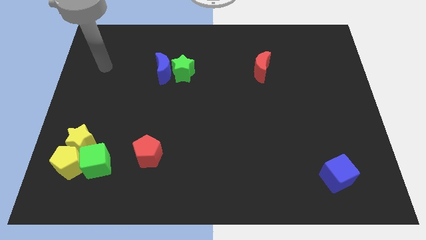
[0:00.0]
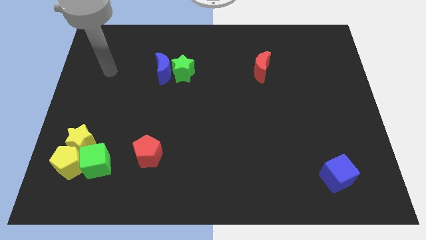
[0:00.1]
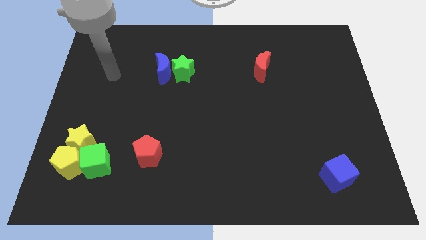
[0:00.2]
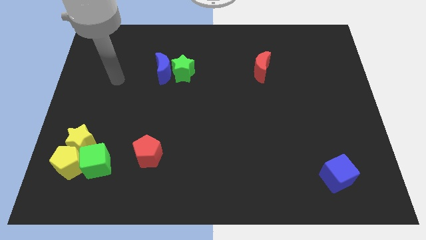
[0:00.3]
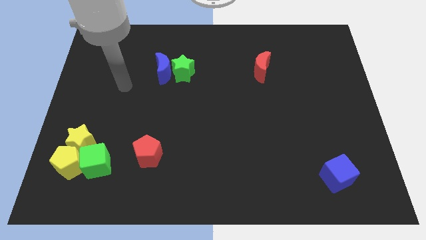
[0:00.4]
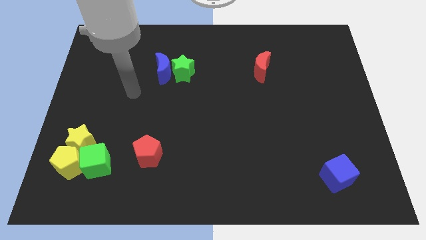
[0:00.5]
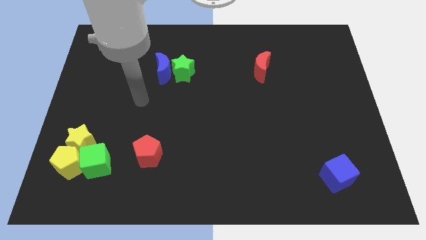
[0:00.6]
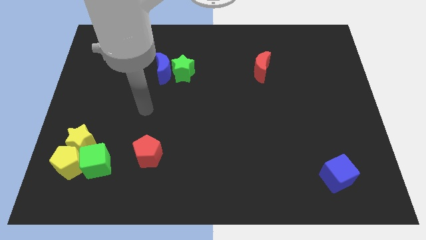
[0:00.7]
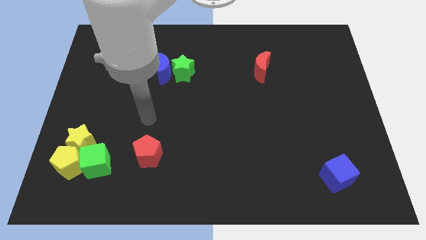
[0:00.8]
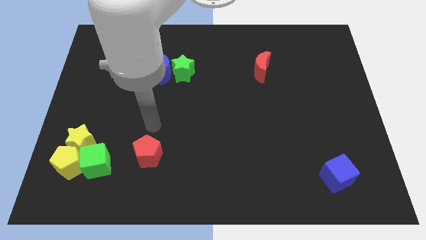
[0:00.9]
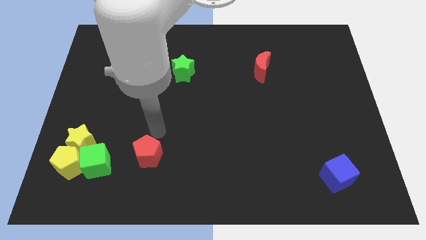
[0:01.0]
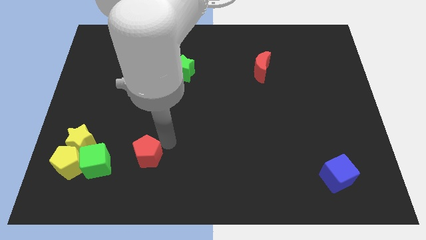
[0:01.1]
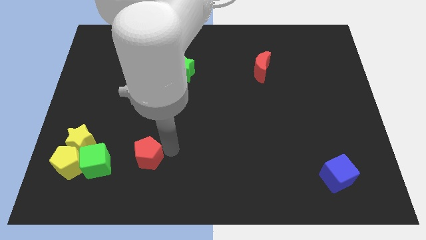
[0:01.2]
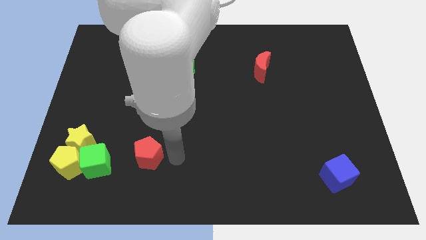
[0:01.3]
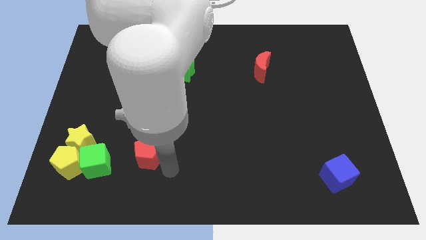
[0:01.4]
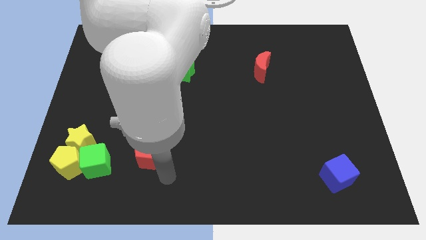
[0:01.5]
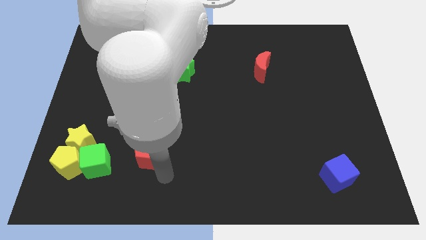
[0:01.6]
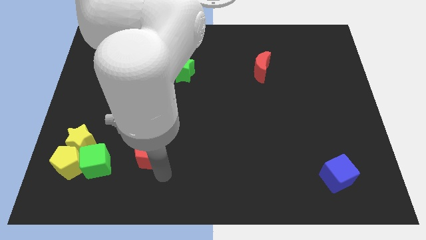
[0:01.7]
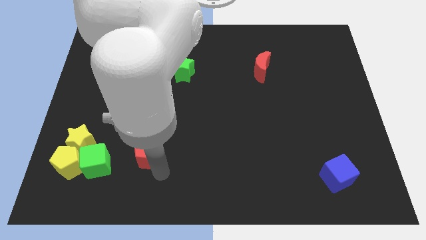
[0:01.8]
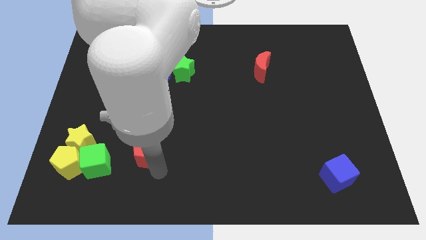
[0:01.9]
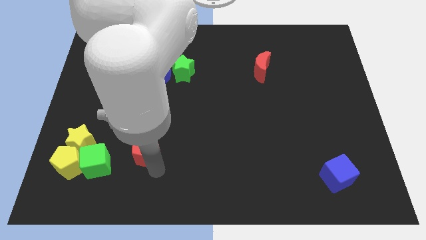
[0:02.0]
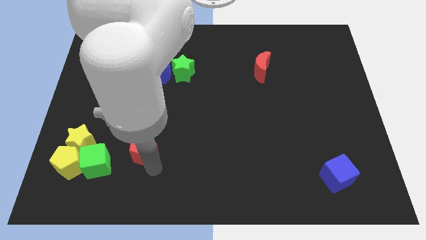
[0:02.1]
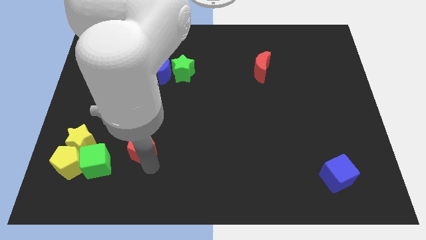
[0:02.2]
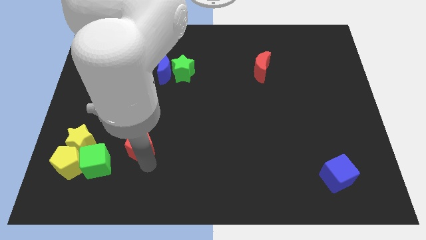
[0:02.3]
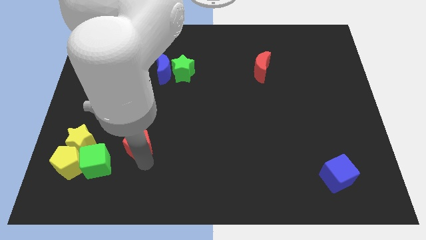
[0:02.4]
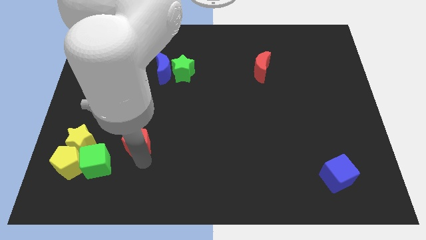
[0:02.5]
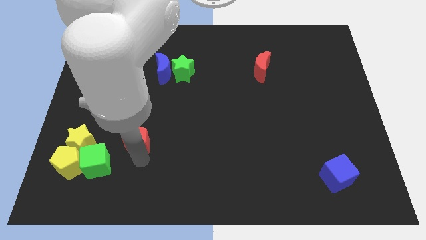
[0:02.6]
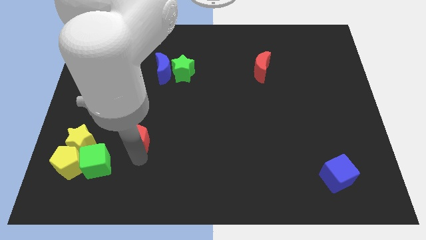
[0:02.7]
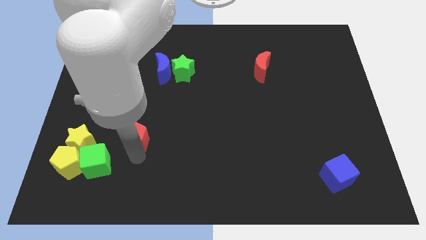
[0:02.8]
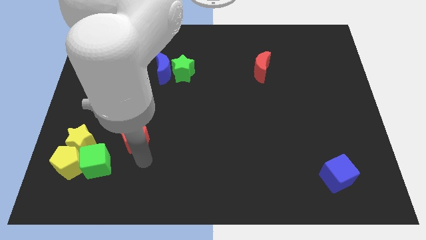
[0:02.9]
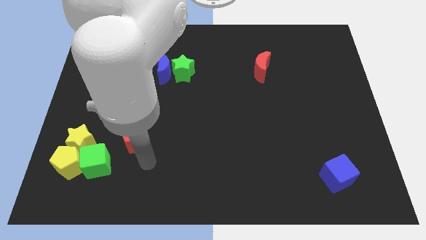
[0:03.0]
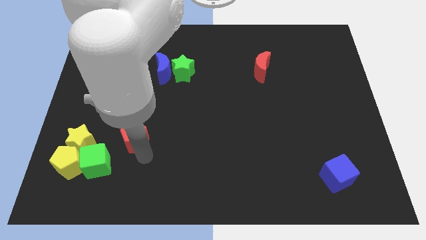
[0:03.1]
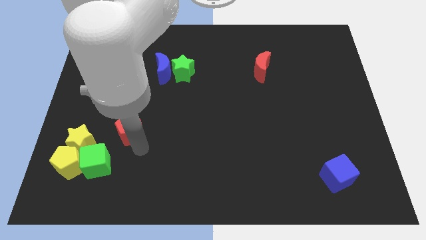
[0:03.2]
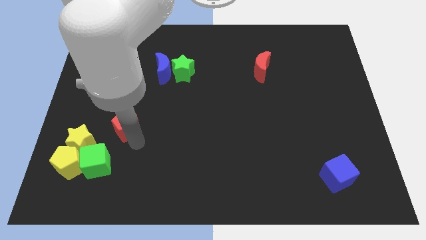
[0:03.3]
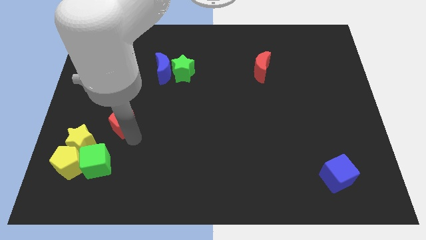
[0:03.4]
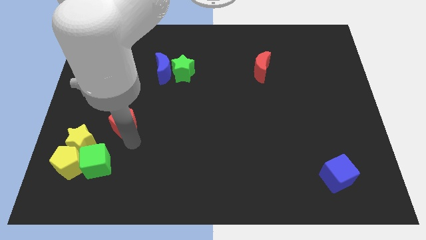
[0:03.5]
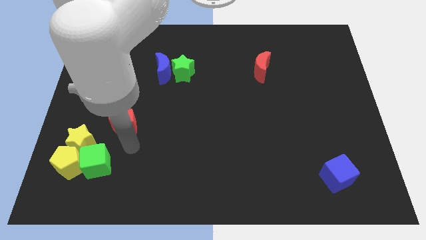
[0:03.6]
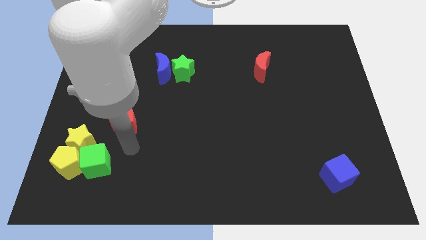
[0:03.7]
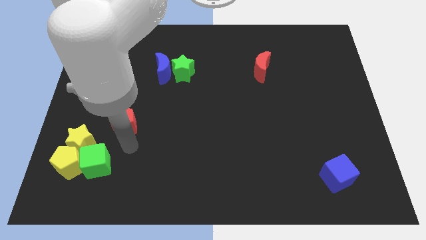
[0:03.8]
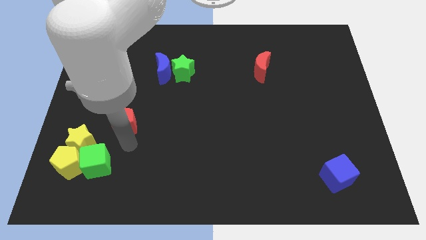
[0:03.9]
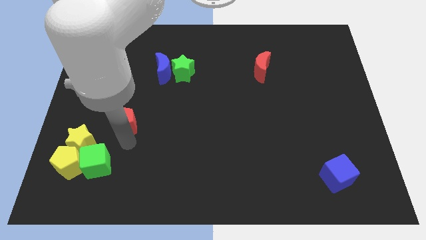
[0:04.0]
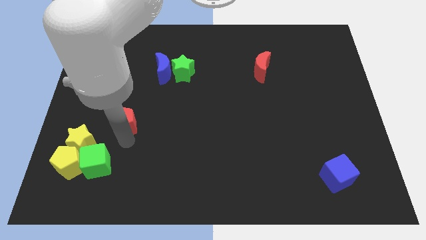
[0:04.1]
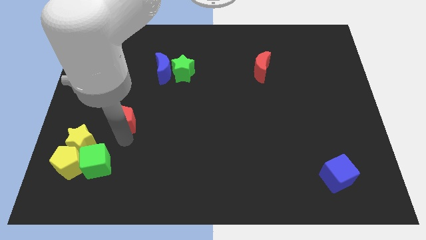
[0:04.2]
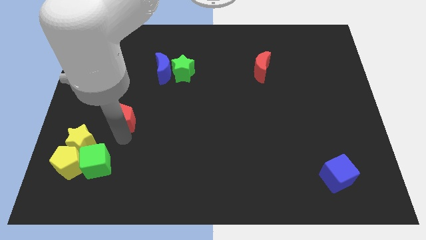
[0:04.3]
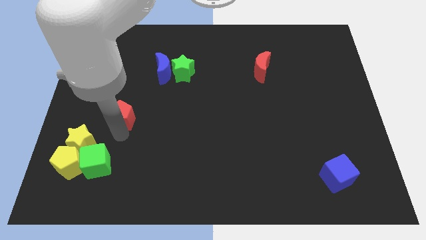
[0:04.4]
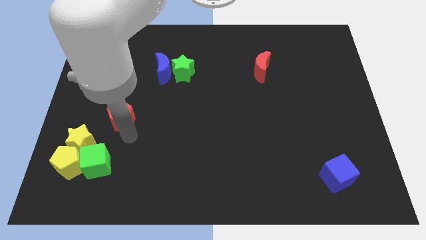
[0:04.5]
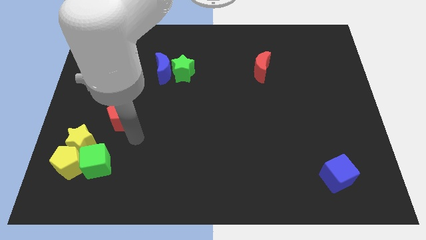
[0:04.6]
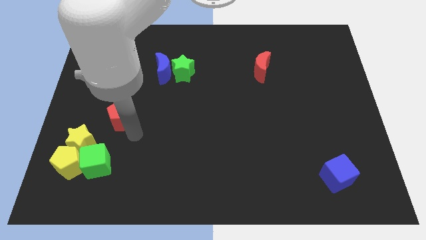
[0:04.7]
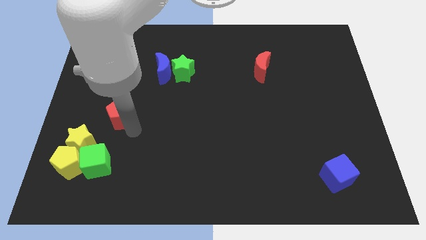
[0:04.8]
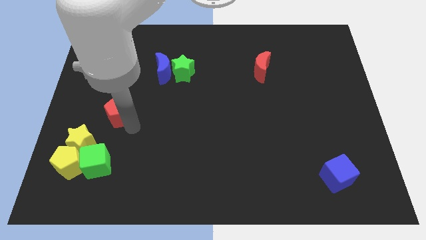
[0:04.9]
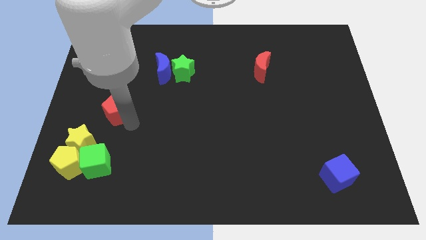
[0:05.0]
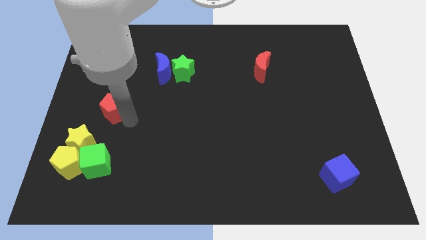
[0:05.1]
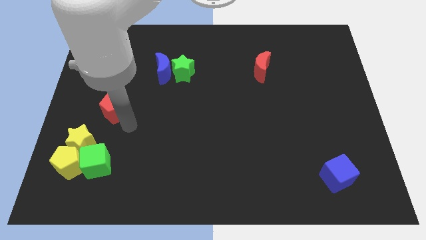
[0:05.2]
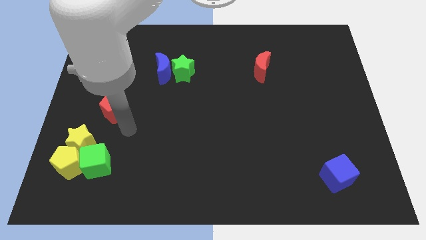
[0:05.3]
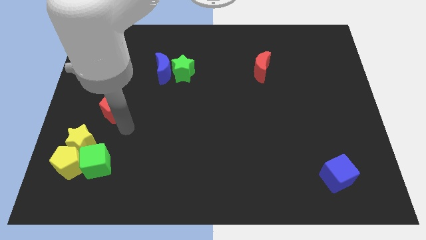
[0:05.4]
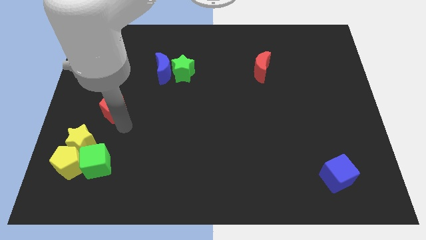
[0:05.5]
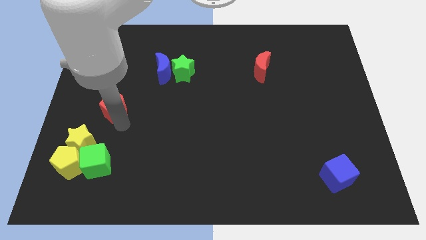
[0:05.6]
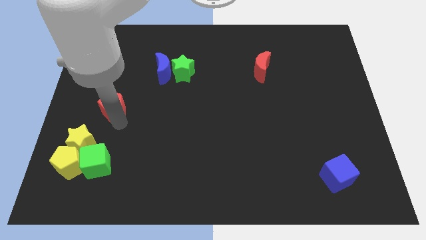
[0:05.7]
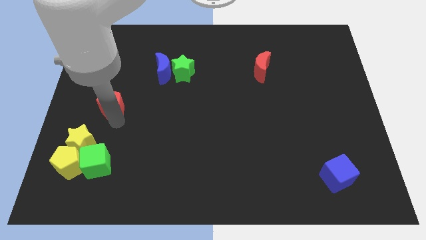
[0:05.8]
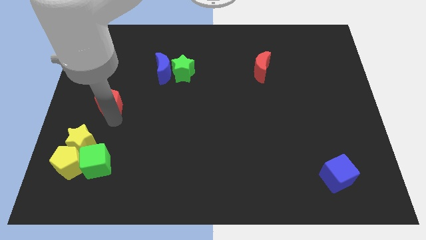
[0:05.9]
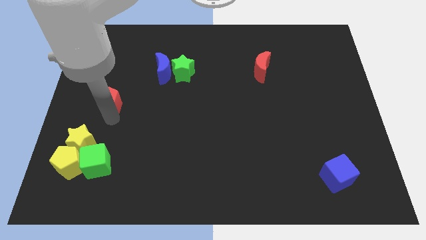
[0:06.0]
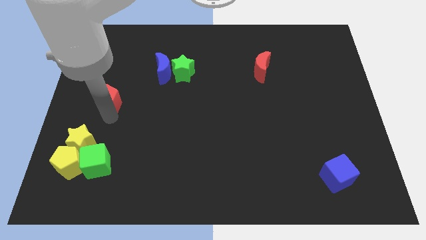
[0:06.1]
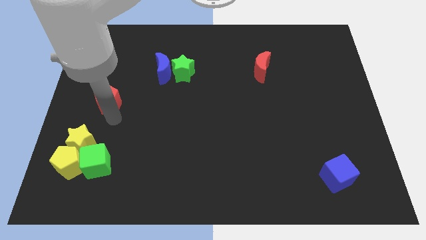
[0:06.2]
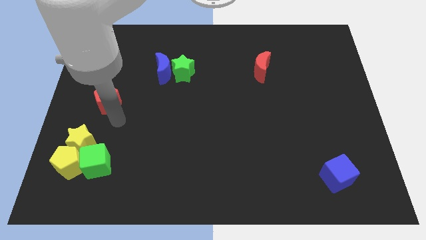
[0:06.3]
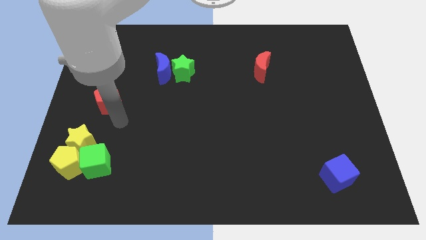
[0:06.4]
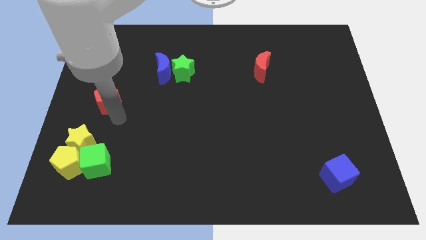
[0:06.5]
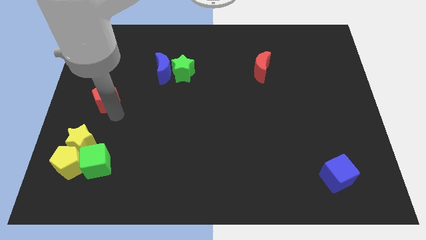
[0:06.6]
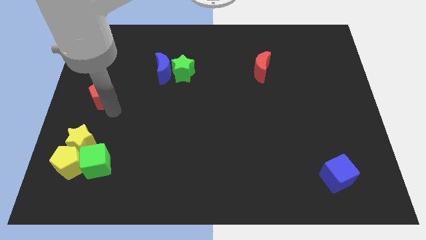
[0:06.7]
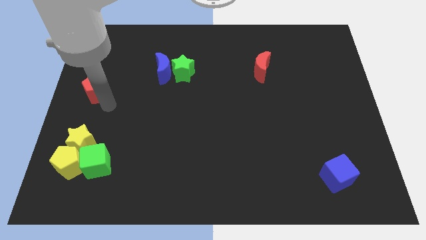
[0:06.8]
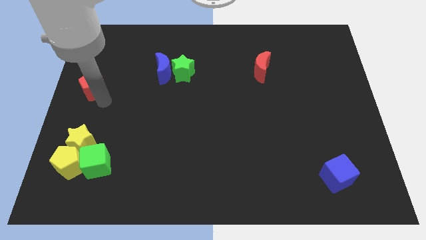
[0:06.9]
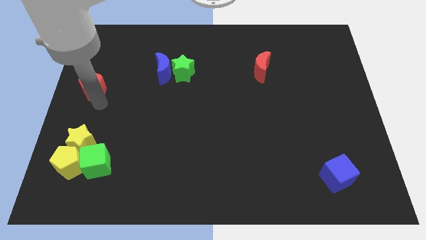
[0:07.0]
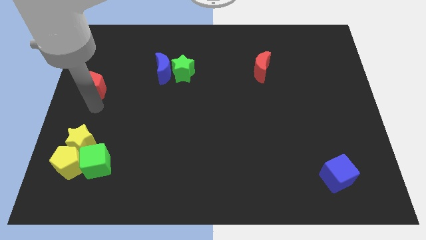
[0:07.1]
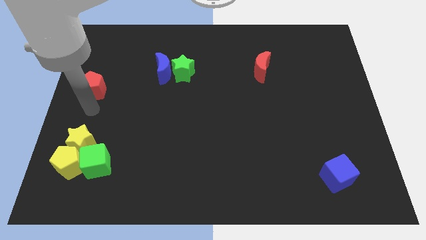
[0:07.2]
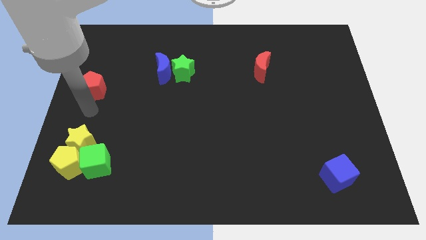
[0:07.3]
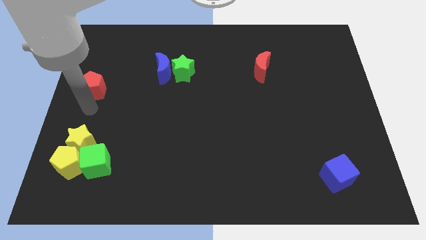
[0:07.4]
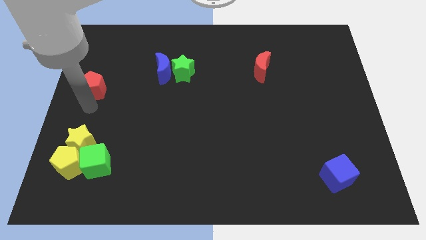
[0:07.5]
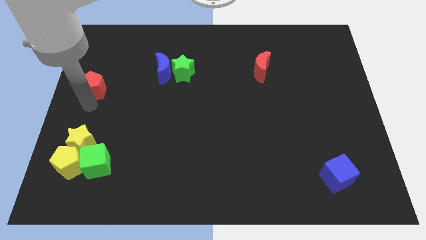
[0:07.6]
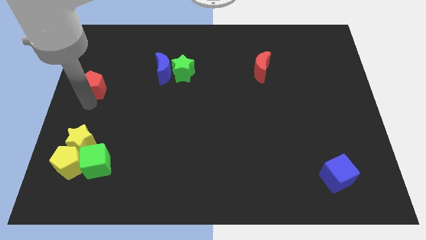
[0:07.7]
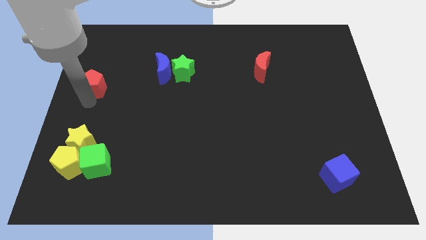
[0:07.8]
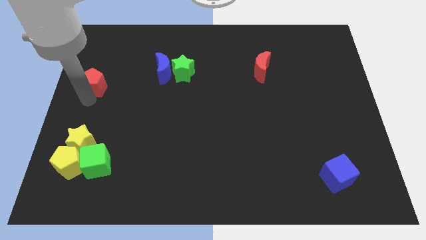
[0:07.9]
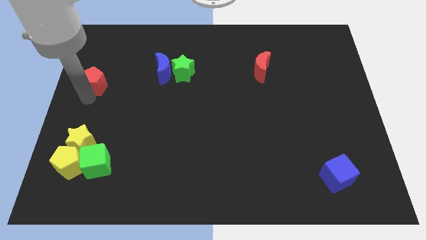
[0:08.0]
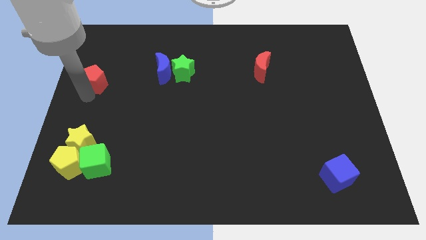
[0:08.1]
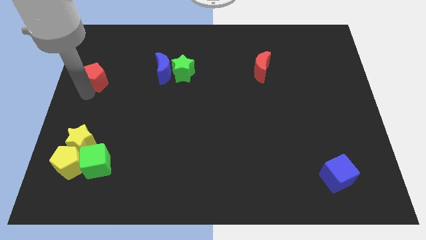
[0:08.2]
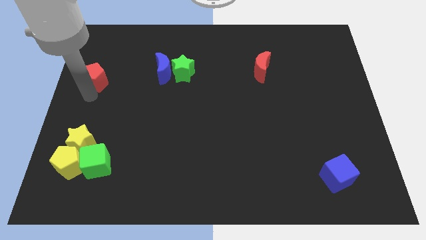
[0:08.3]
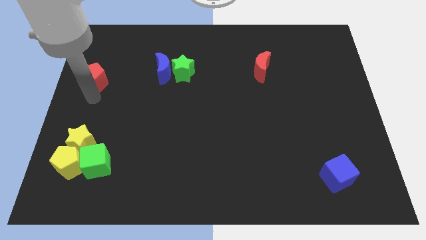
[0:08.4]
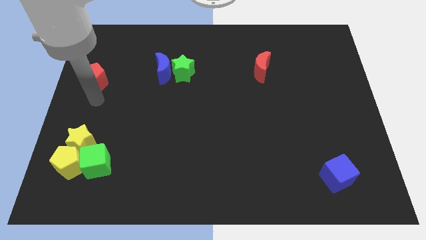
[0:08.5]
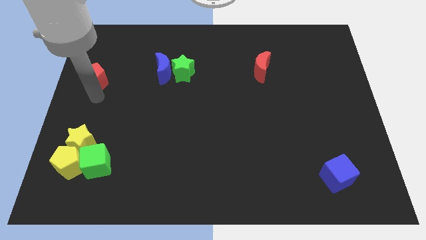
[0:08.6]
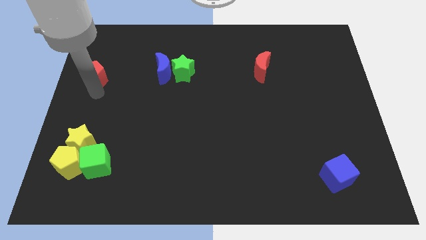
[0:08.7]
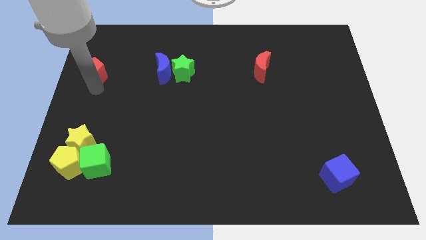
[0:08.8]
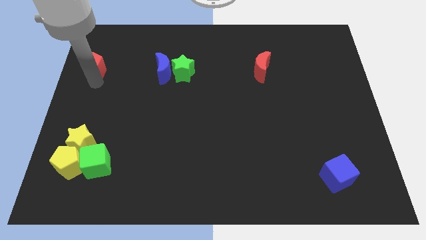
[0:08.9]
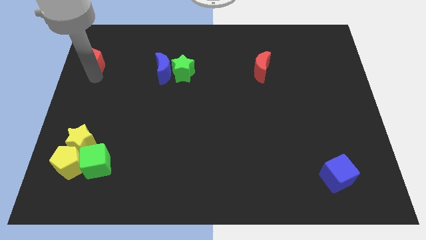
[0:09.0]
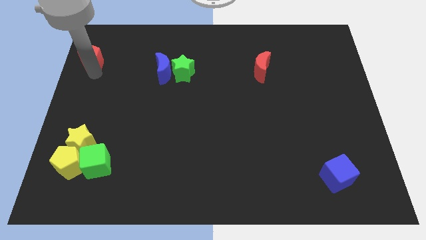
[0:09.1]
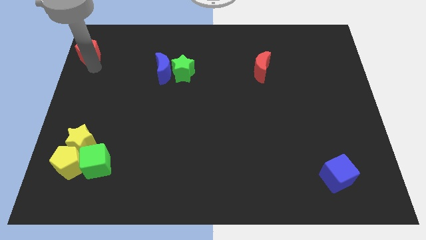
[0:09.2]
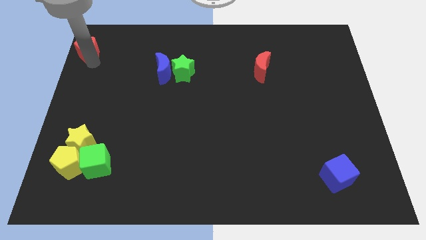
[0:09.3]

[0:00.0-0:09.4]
push the red pentagon to the top left of the board
